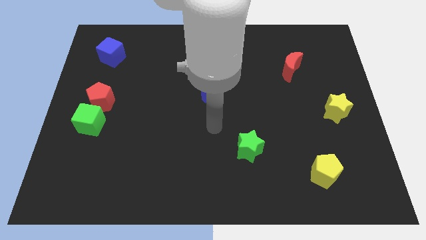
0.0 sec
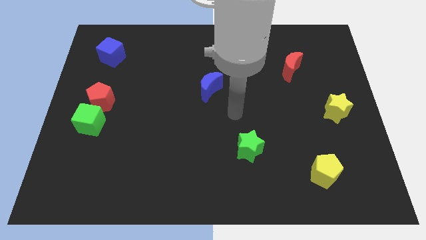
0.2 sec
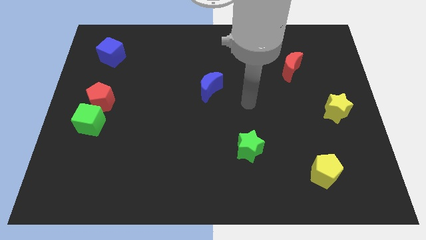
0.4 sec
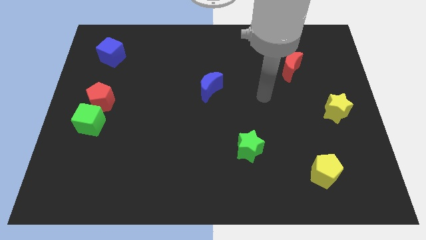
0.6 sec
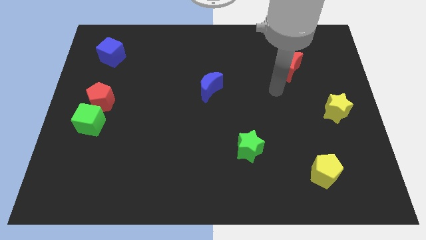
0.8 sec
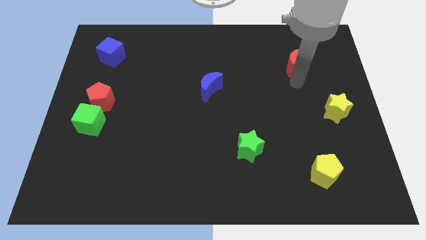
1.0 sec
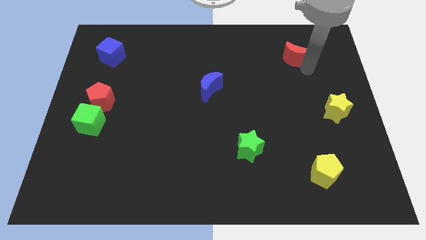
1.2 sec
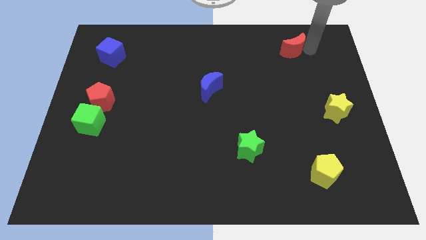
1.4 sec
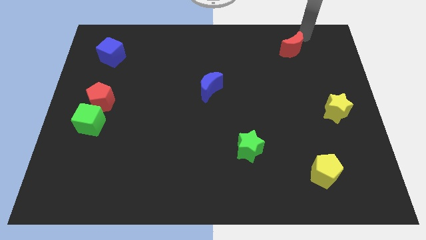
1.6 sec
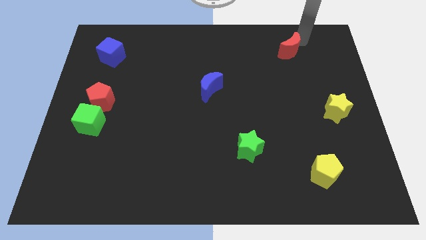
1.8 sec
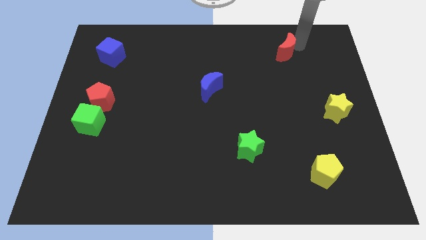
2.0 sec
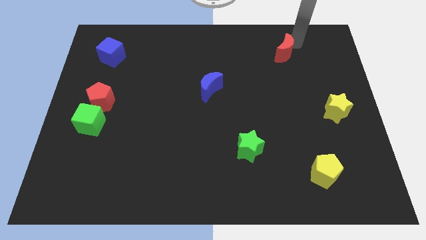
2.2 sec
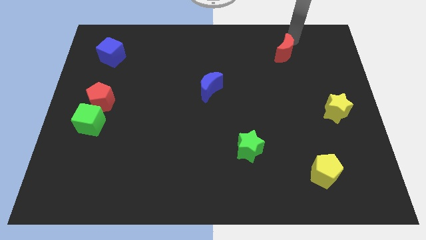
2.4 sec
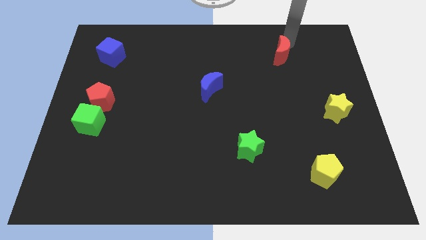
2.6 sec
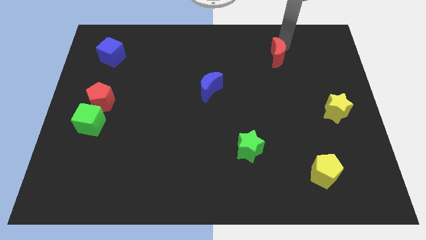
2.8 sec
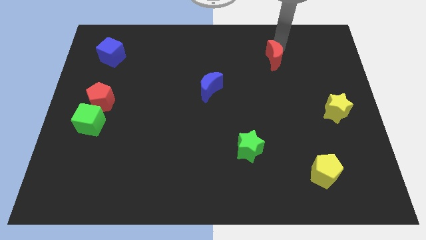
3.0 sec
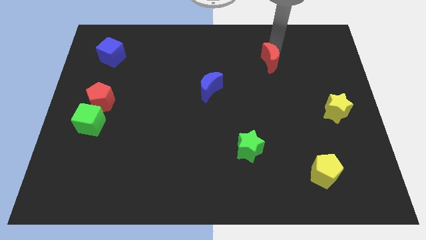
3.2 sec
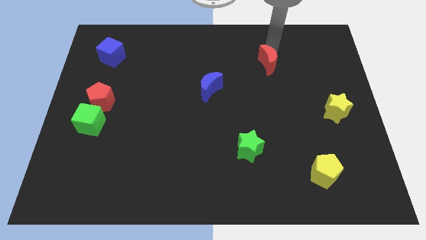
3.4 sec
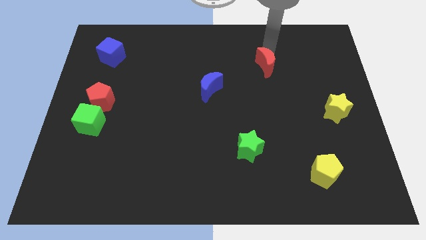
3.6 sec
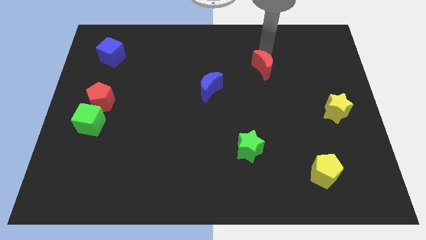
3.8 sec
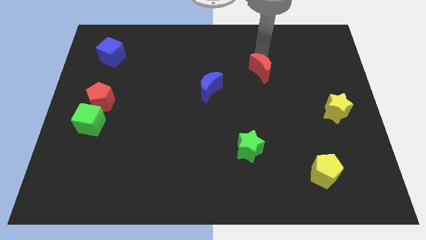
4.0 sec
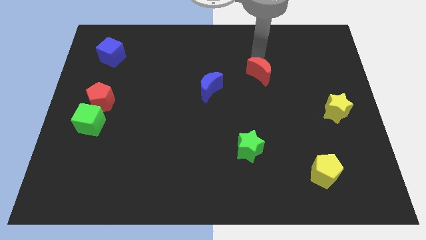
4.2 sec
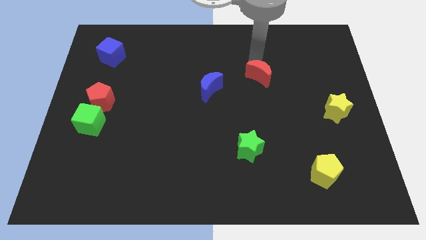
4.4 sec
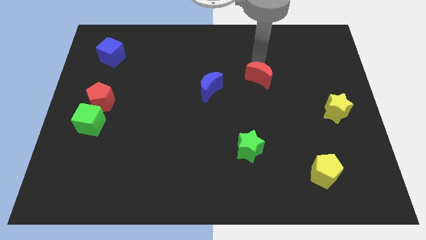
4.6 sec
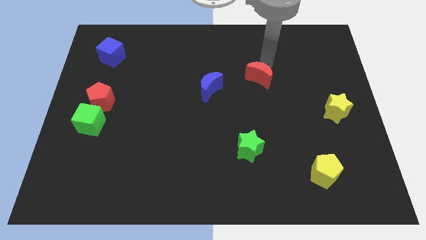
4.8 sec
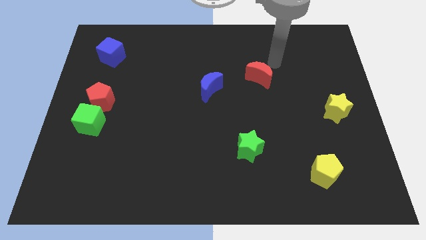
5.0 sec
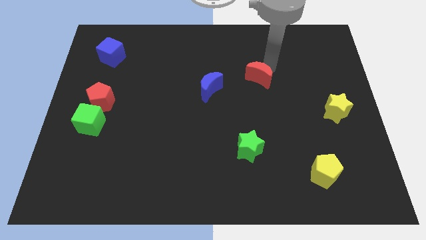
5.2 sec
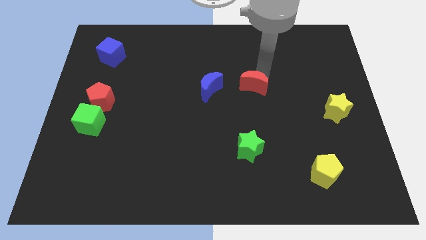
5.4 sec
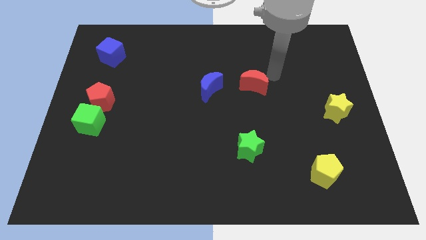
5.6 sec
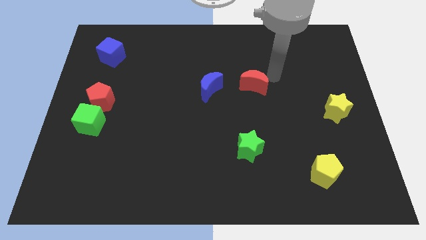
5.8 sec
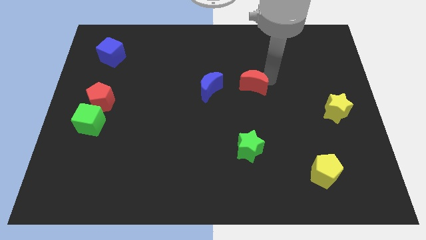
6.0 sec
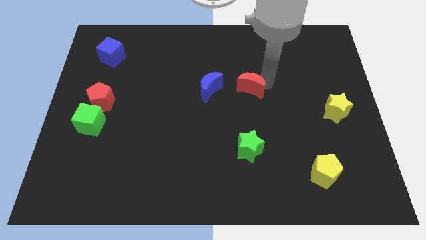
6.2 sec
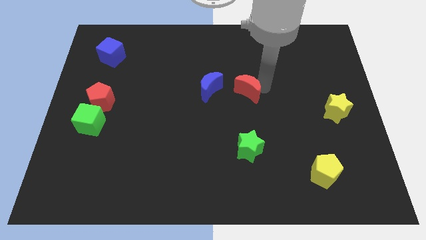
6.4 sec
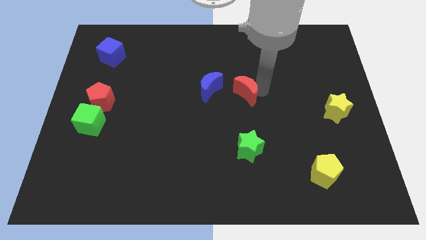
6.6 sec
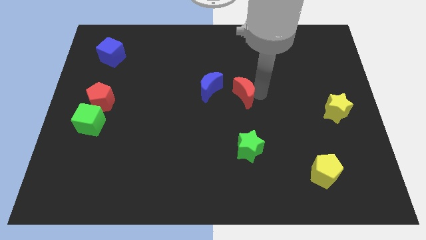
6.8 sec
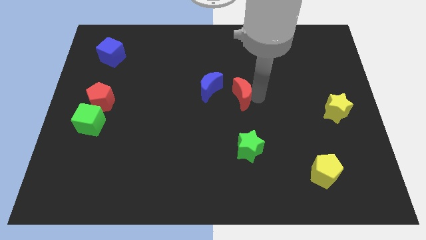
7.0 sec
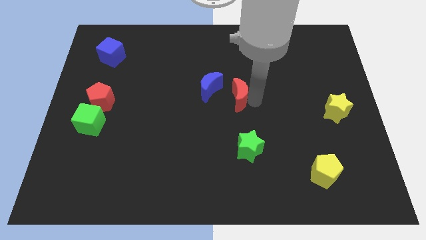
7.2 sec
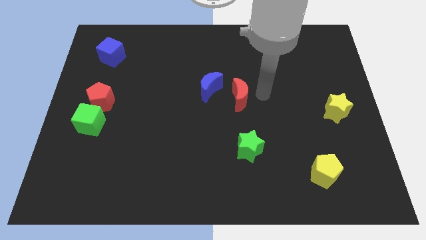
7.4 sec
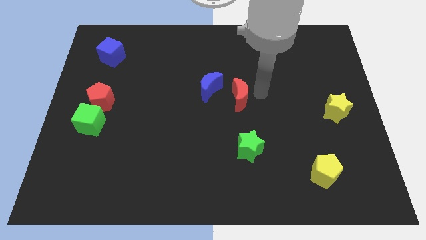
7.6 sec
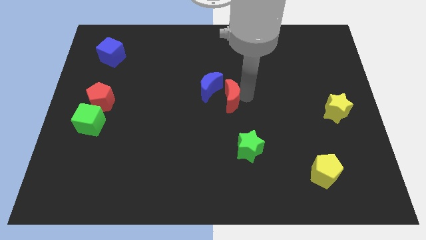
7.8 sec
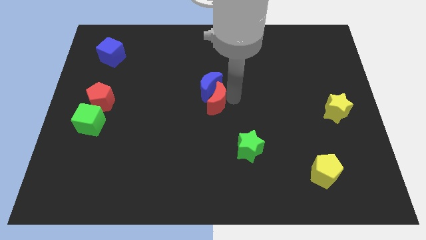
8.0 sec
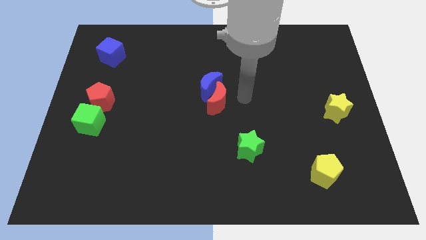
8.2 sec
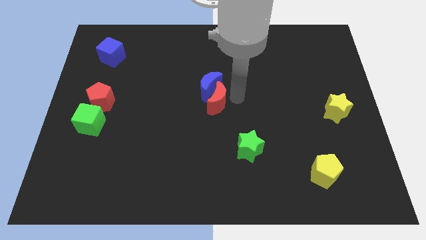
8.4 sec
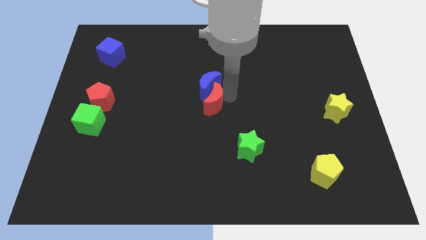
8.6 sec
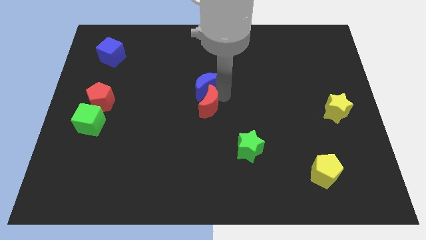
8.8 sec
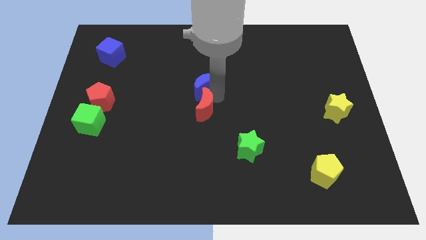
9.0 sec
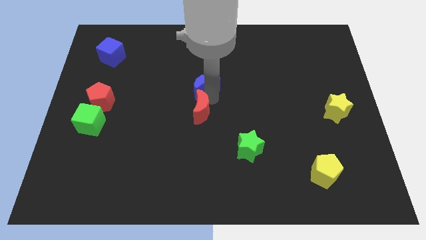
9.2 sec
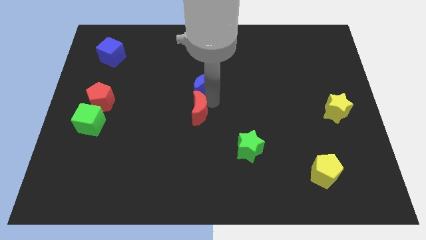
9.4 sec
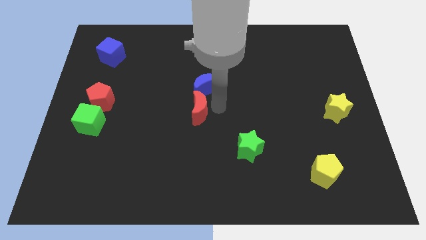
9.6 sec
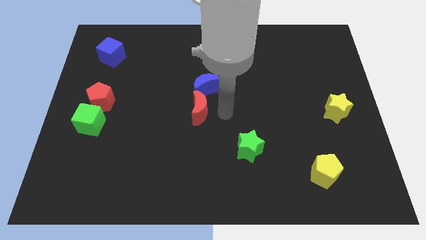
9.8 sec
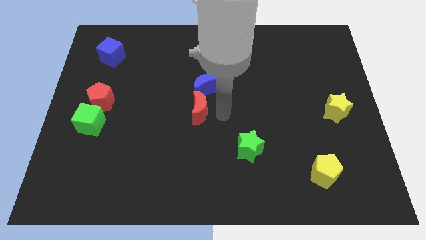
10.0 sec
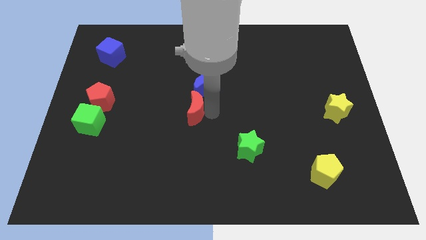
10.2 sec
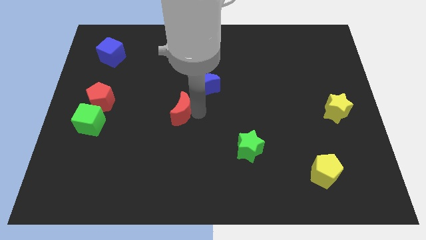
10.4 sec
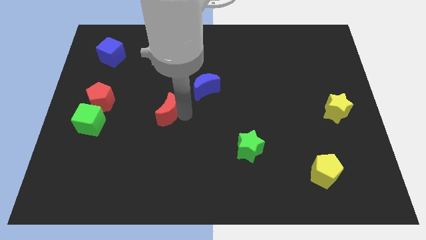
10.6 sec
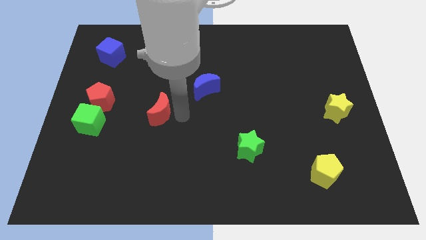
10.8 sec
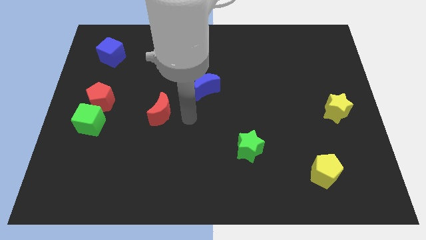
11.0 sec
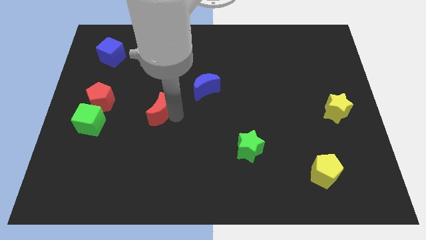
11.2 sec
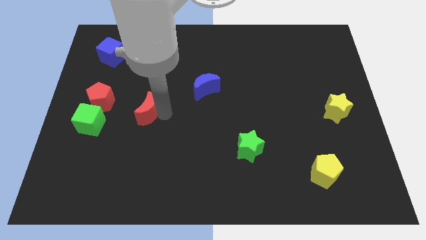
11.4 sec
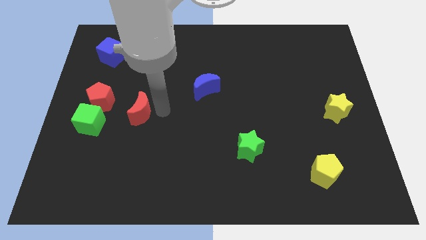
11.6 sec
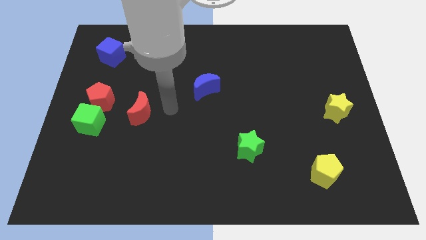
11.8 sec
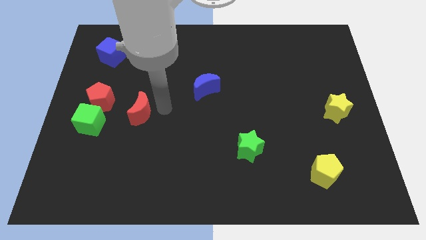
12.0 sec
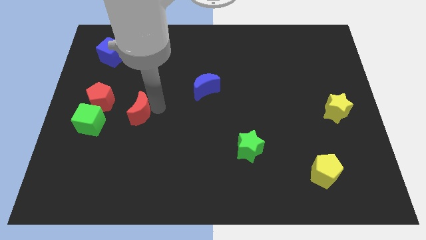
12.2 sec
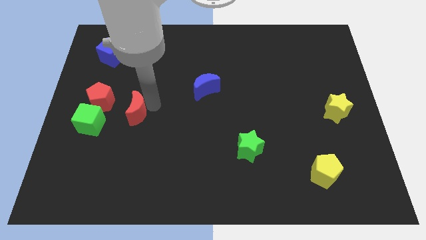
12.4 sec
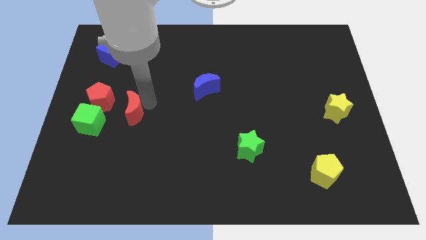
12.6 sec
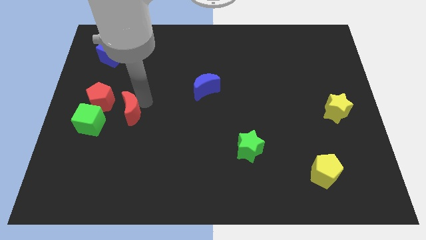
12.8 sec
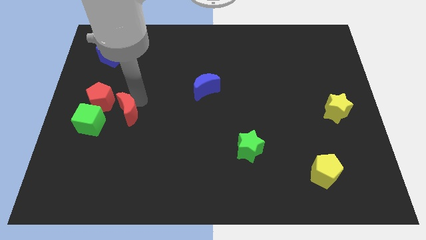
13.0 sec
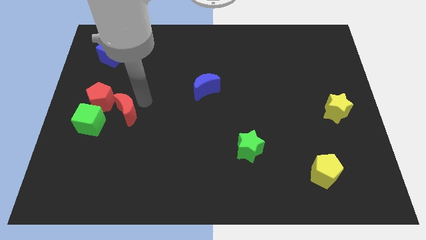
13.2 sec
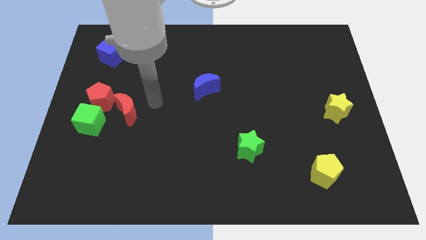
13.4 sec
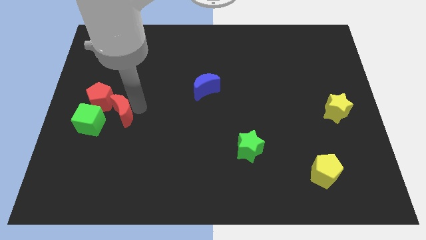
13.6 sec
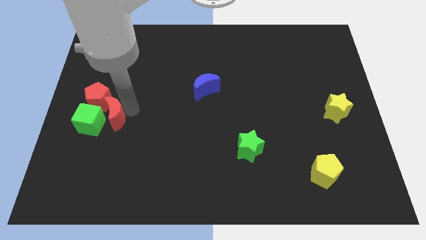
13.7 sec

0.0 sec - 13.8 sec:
put the red moon to the green cube
